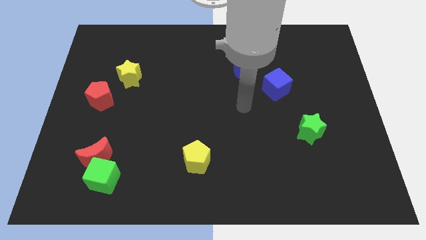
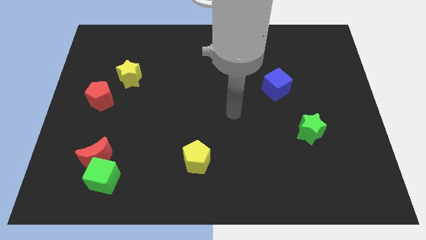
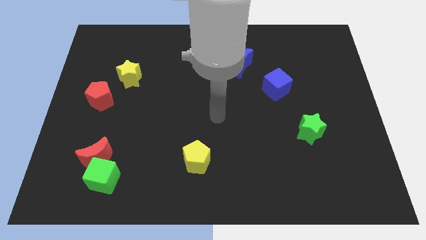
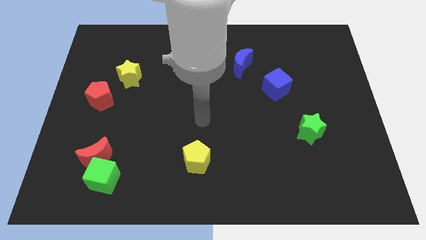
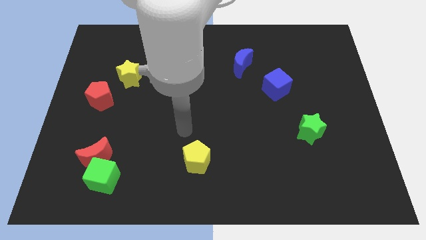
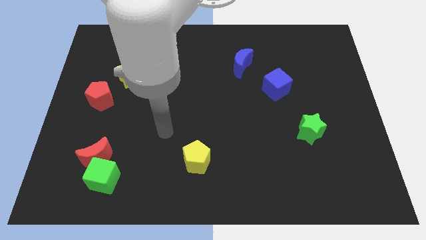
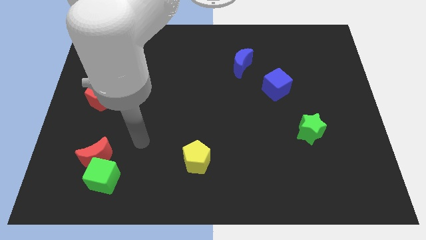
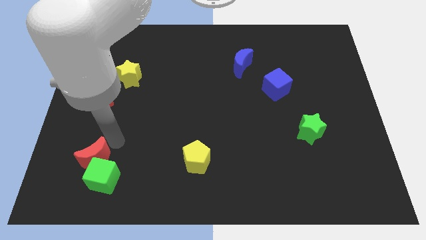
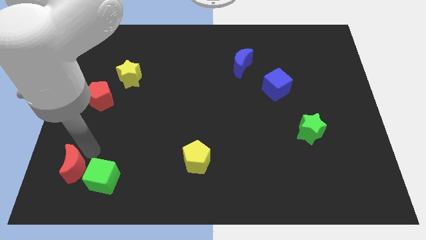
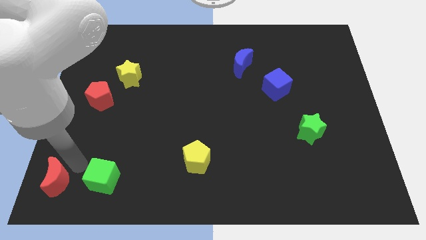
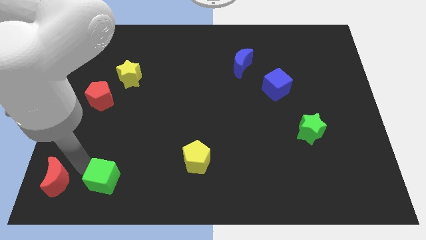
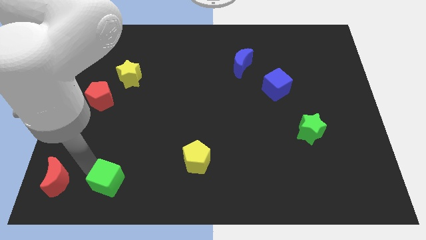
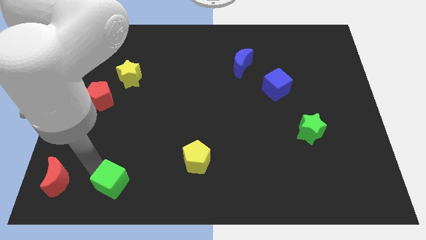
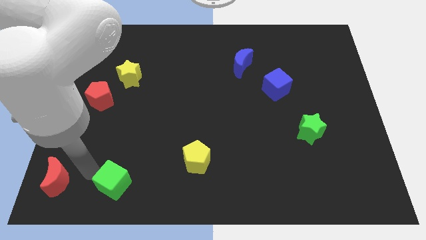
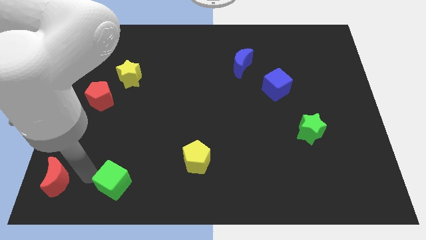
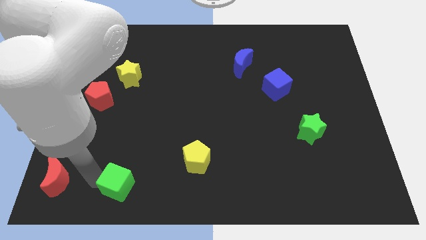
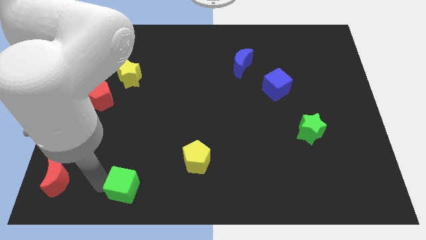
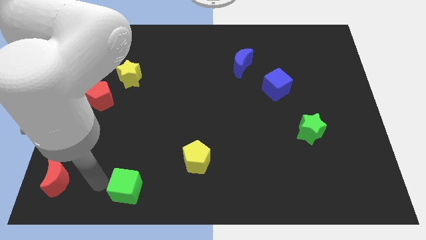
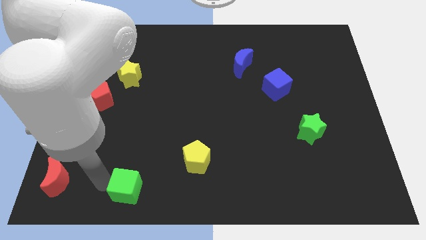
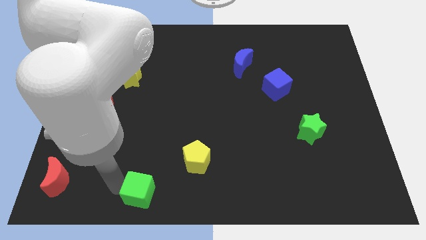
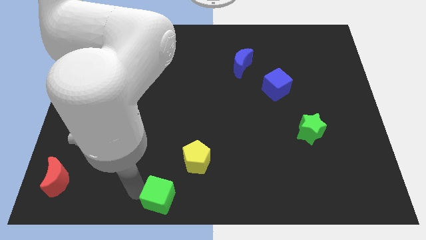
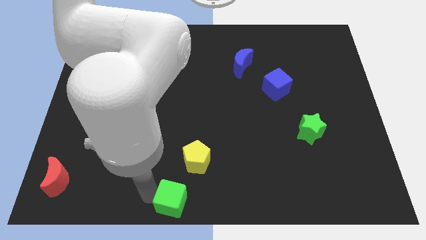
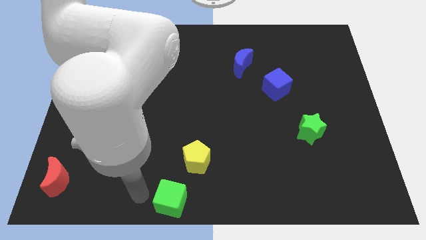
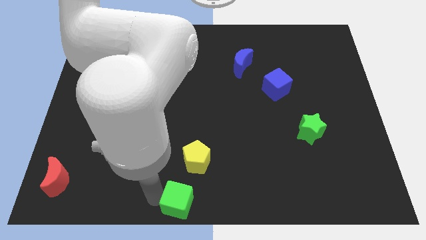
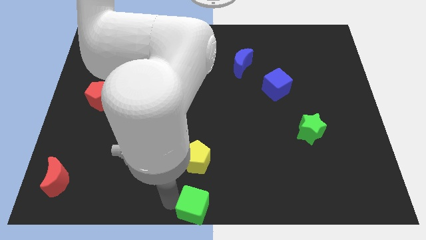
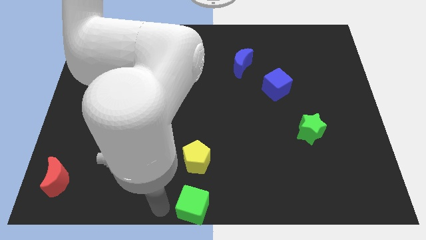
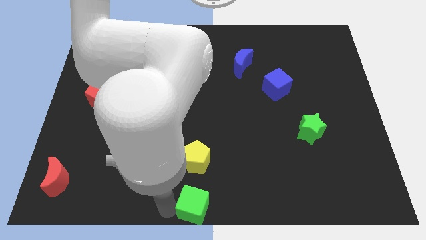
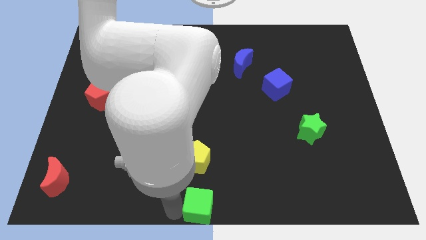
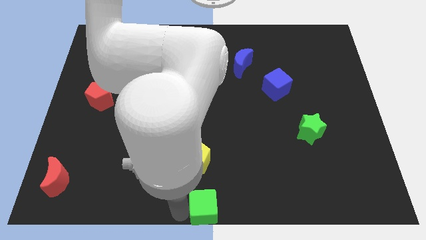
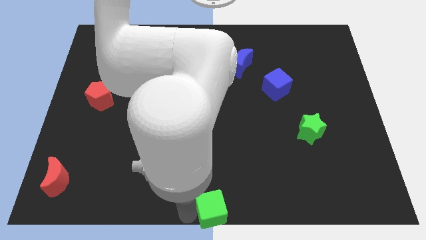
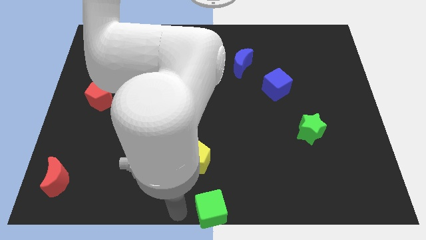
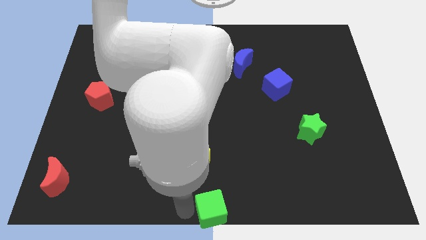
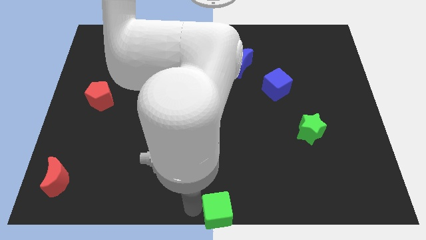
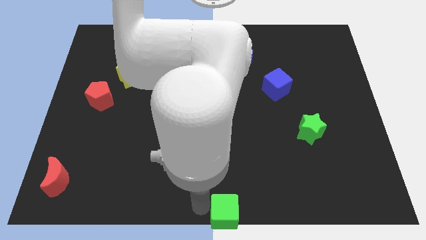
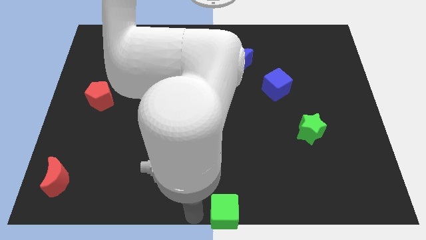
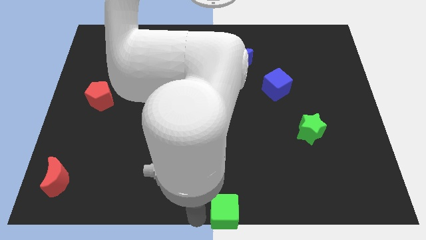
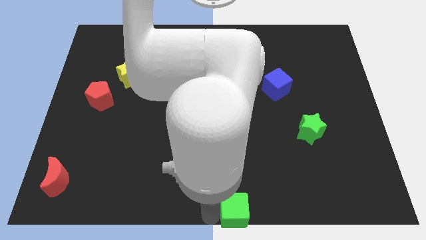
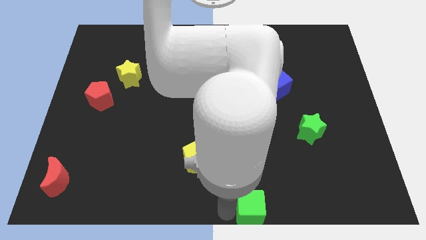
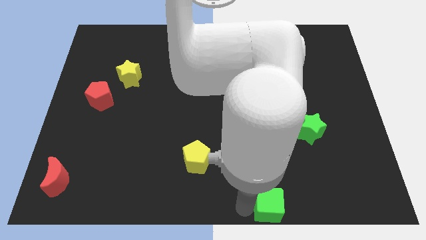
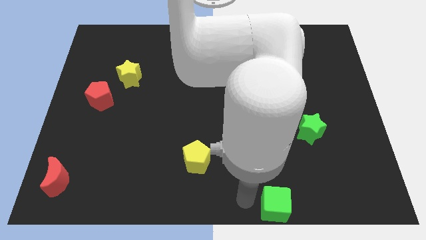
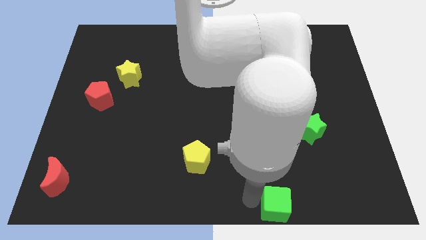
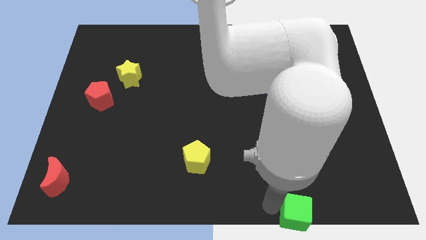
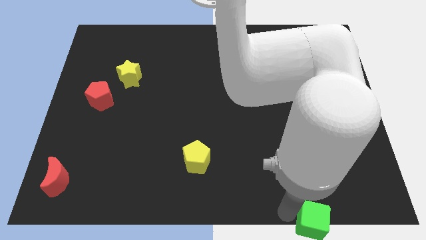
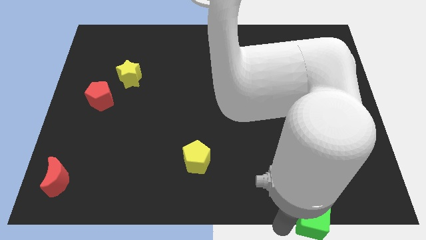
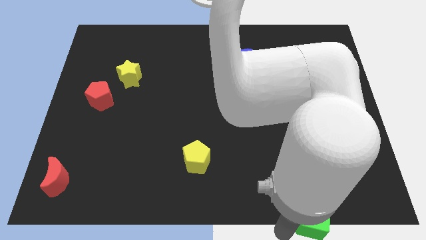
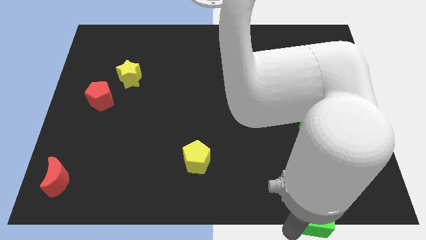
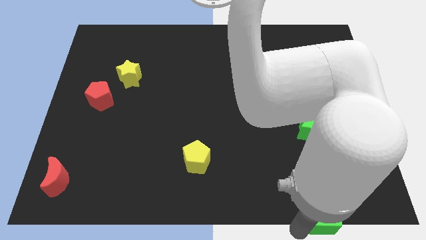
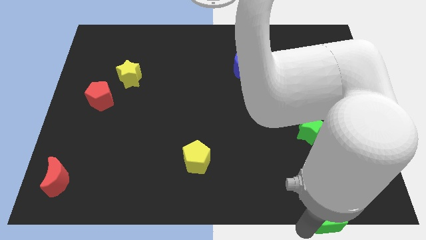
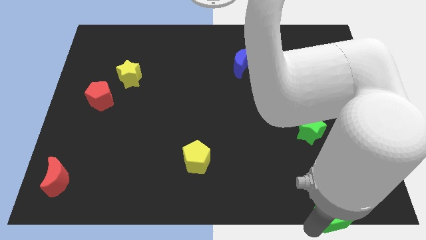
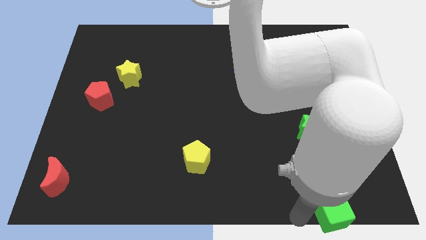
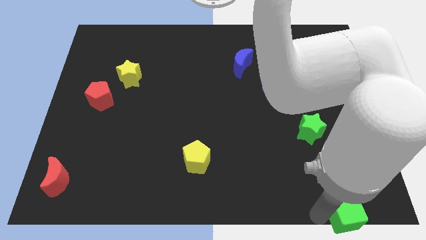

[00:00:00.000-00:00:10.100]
put the green cube to the lower right corner

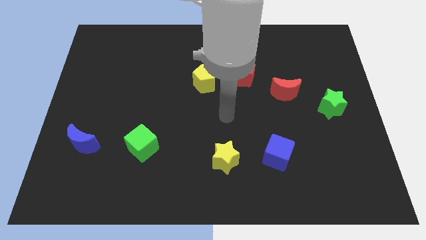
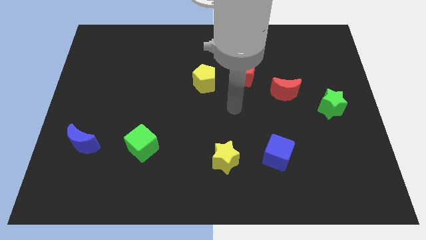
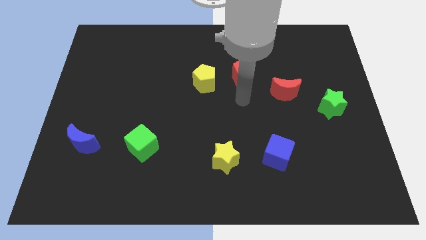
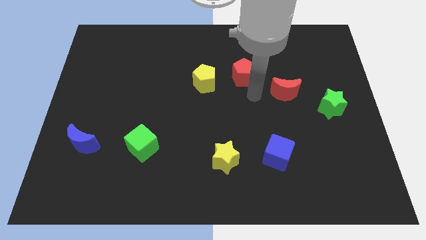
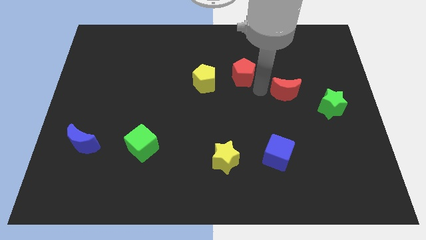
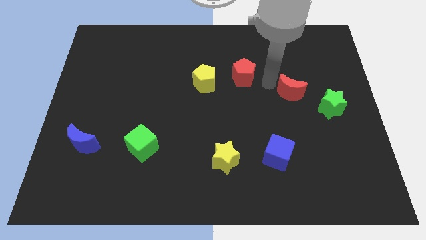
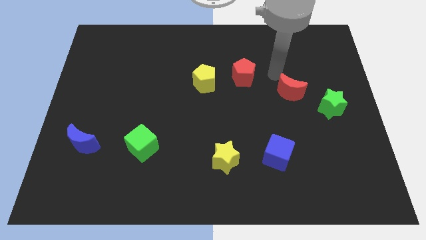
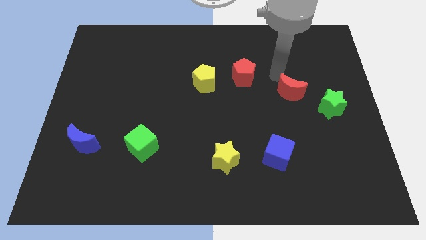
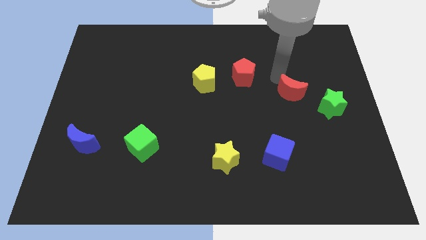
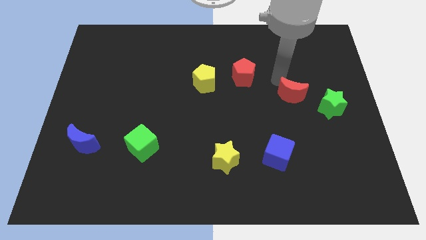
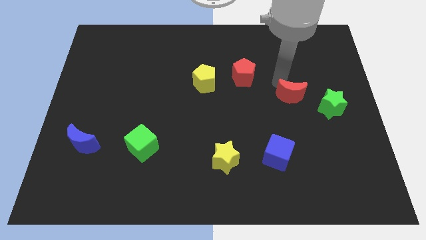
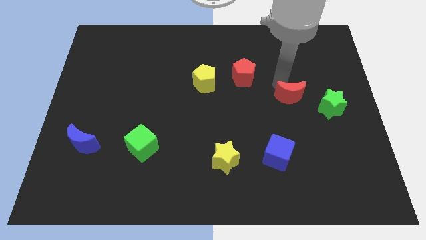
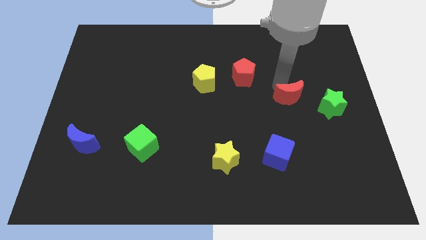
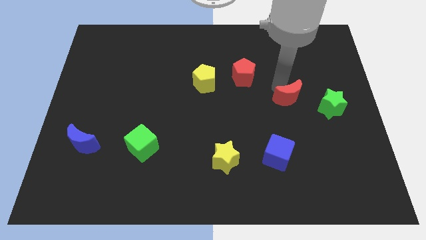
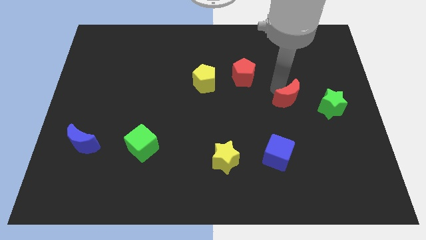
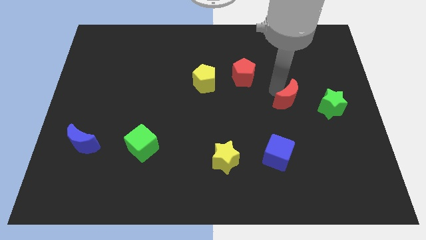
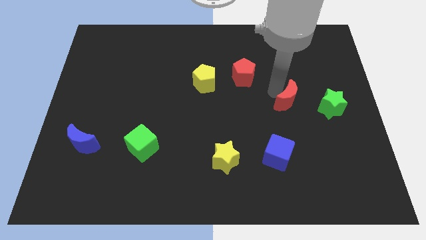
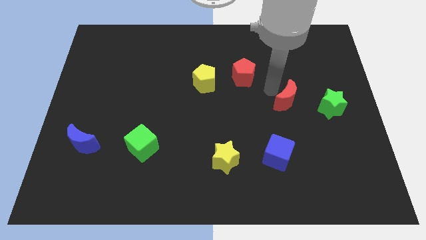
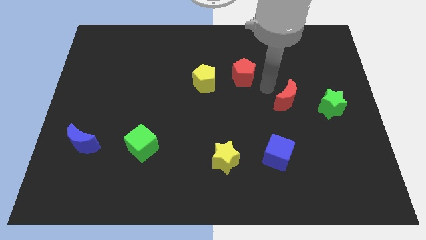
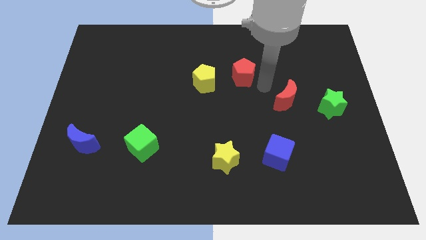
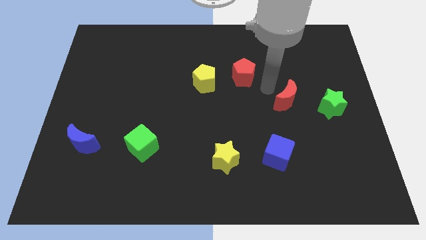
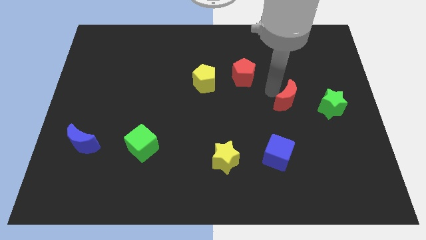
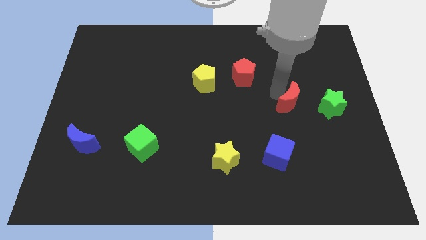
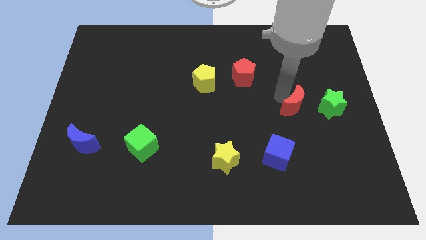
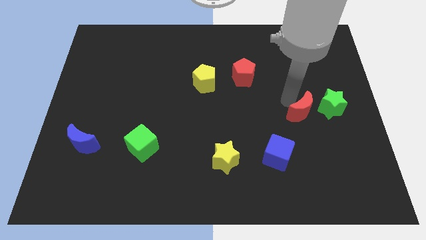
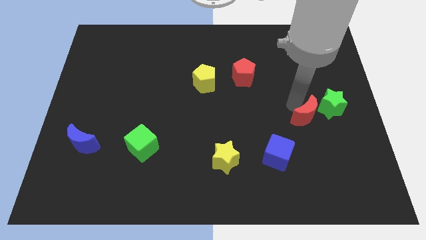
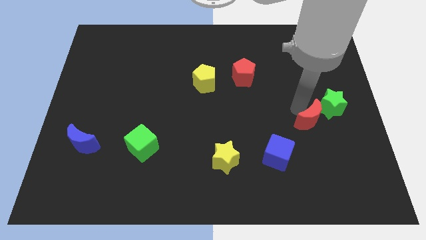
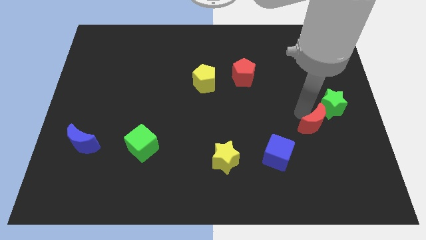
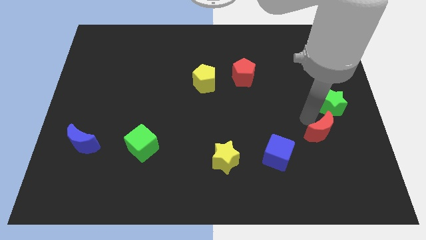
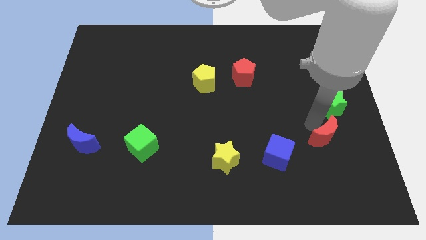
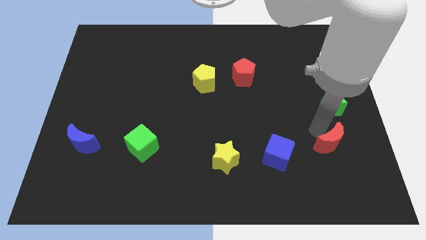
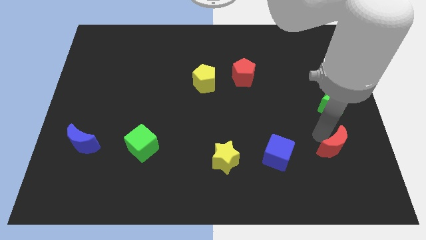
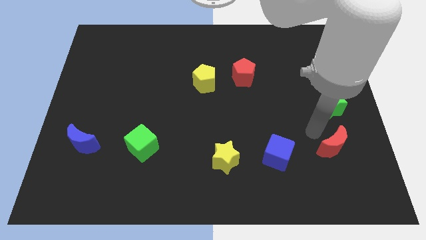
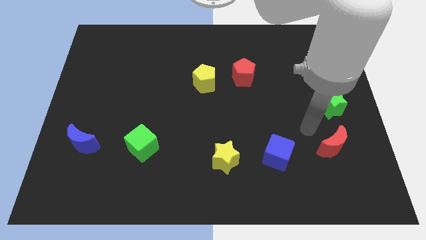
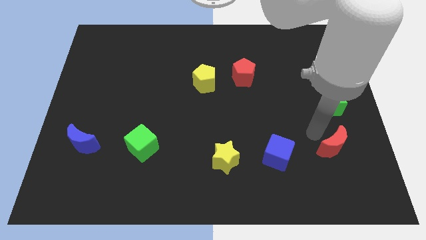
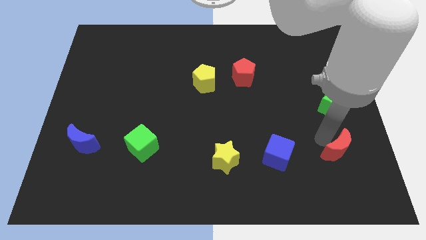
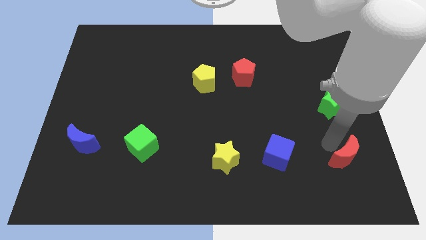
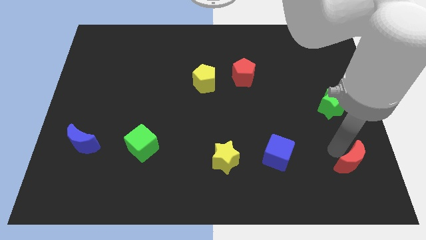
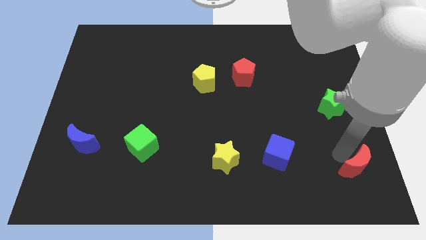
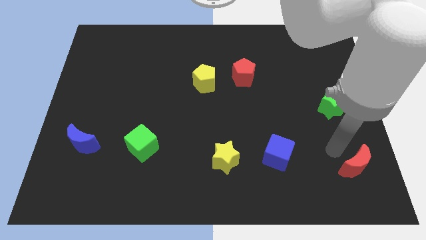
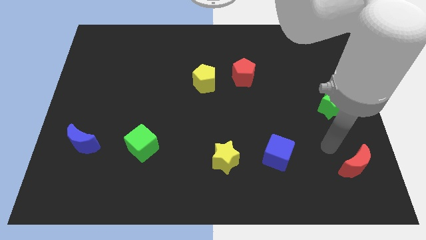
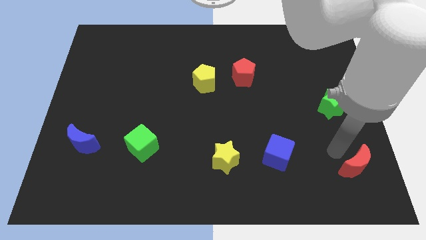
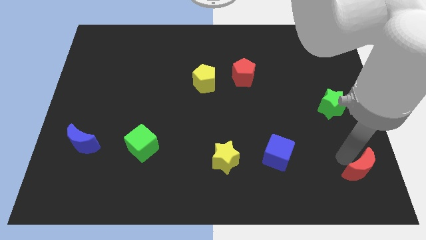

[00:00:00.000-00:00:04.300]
put the red moon to the lower right corner
